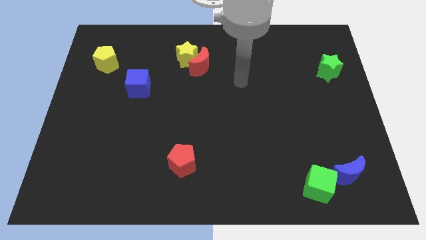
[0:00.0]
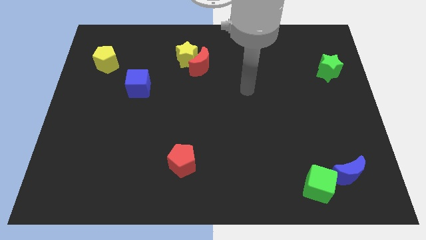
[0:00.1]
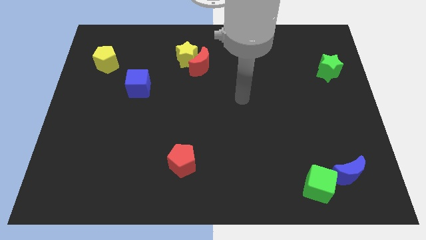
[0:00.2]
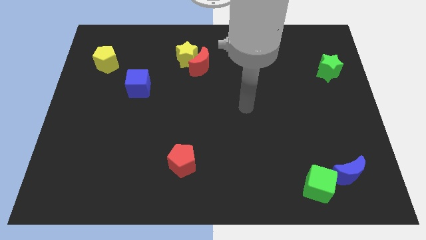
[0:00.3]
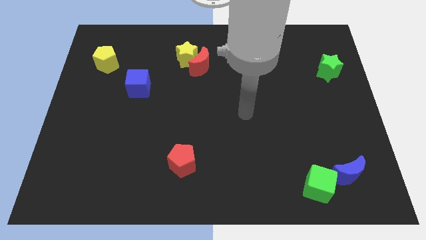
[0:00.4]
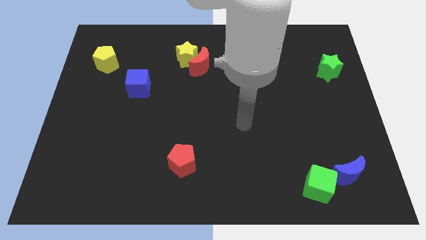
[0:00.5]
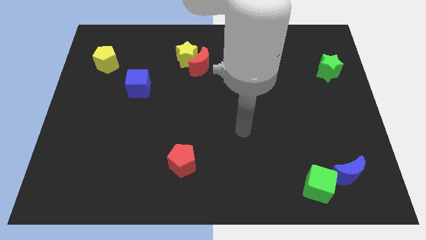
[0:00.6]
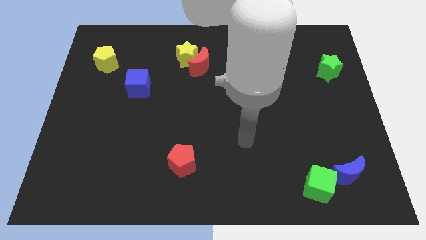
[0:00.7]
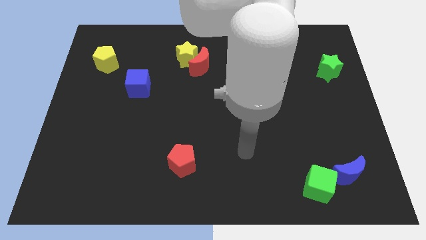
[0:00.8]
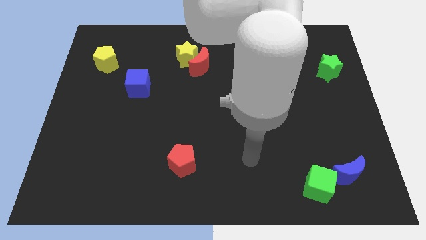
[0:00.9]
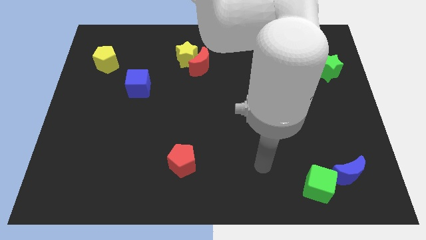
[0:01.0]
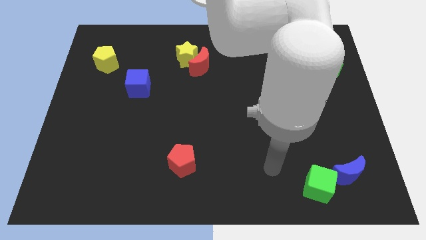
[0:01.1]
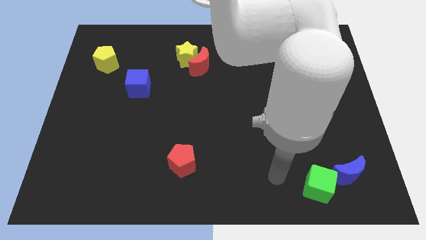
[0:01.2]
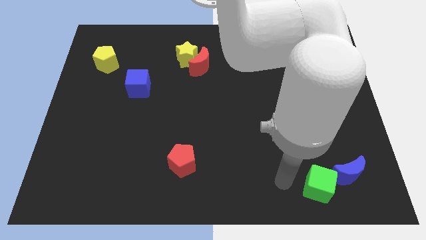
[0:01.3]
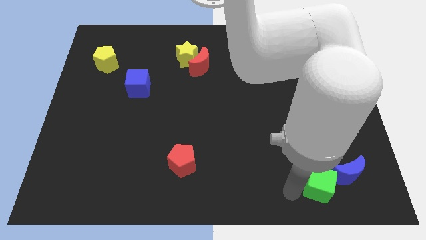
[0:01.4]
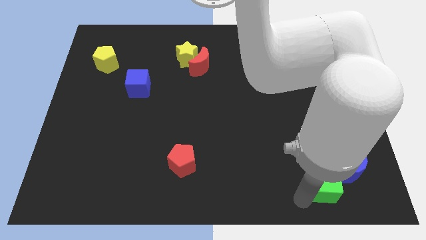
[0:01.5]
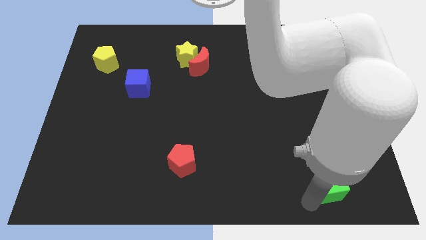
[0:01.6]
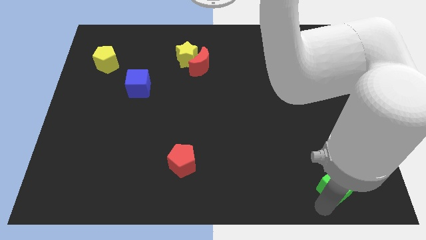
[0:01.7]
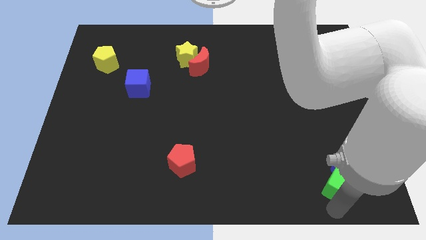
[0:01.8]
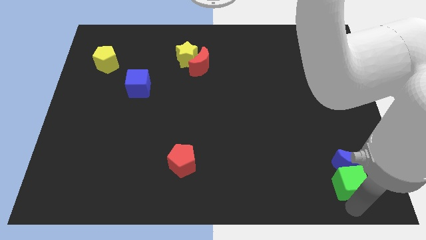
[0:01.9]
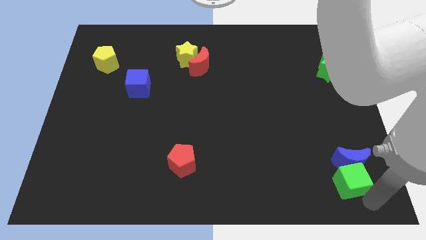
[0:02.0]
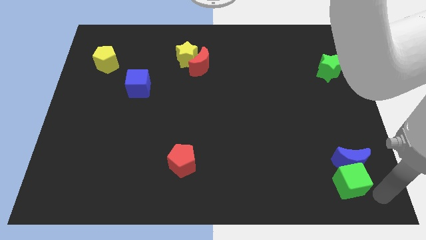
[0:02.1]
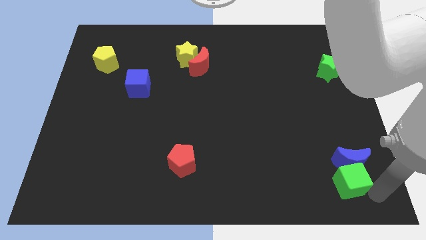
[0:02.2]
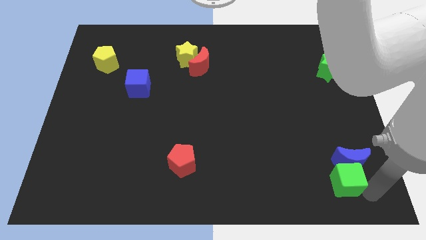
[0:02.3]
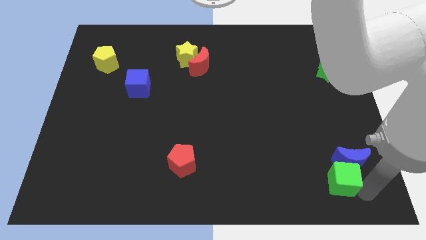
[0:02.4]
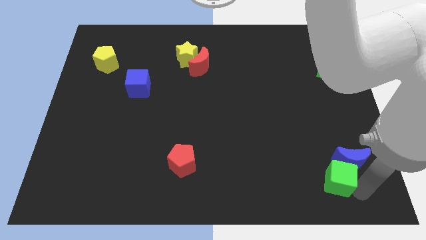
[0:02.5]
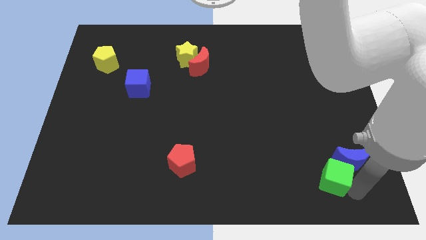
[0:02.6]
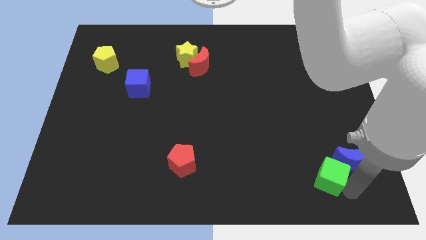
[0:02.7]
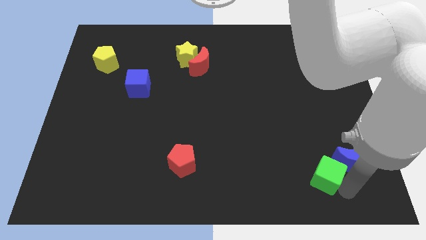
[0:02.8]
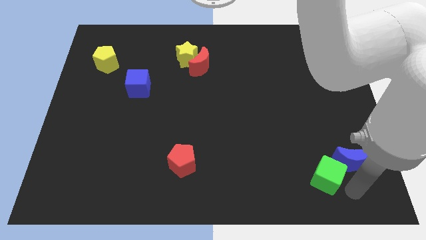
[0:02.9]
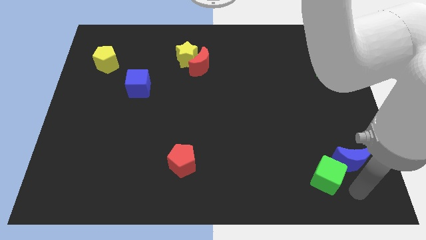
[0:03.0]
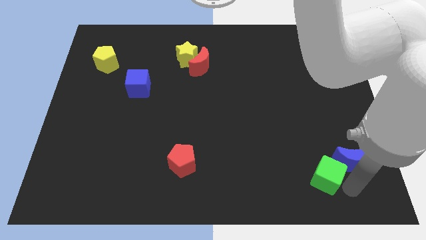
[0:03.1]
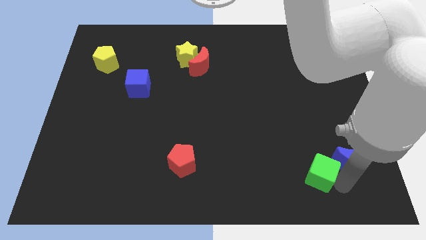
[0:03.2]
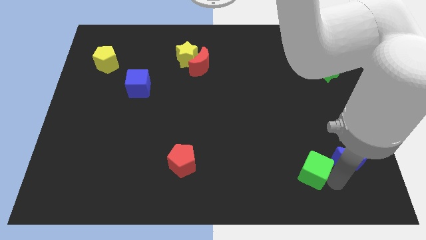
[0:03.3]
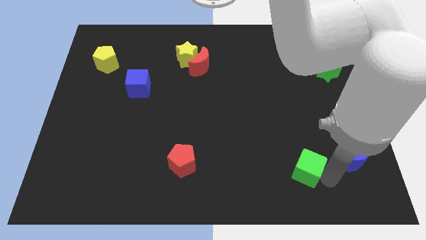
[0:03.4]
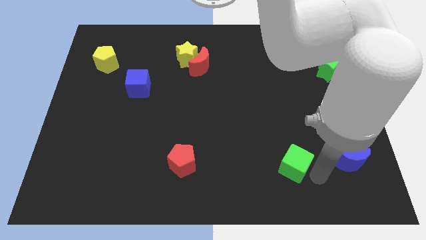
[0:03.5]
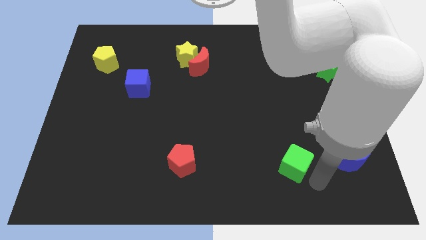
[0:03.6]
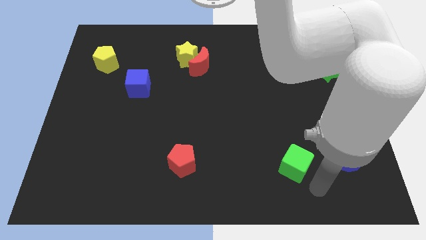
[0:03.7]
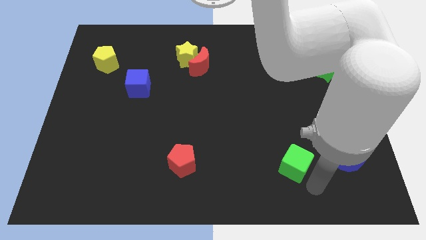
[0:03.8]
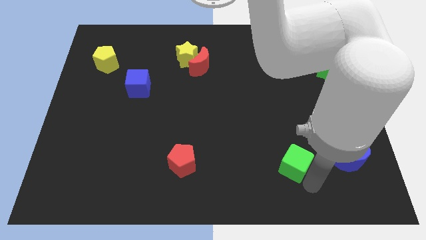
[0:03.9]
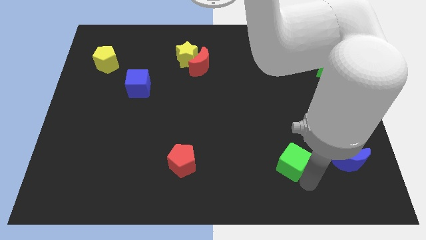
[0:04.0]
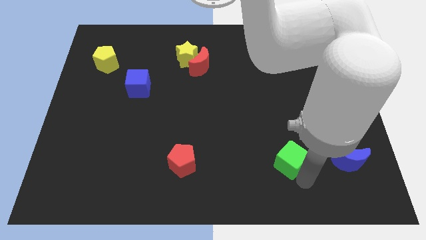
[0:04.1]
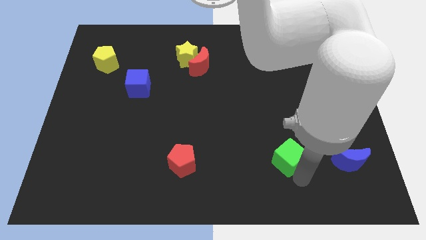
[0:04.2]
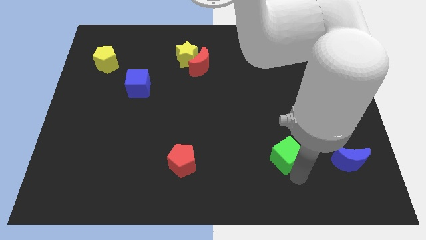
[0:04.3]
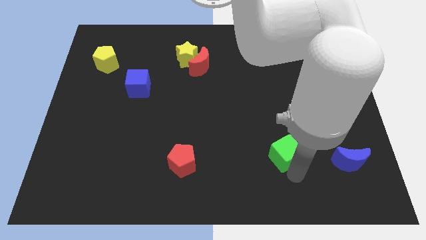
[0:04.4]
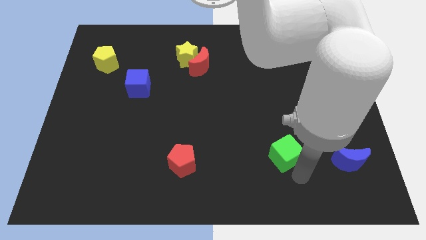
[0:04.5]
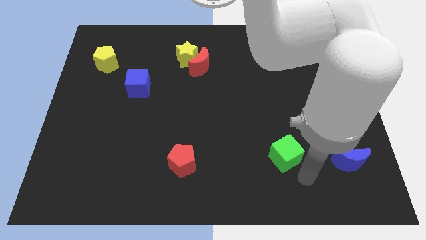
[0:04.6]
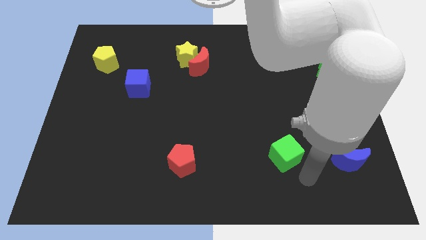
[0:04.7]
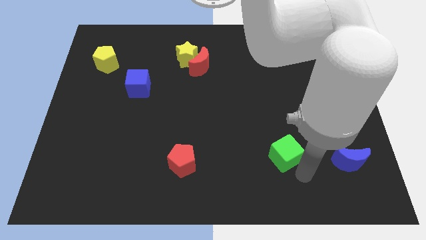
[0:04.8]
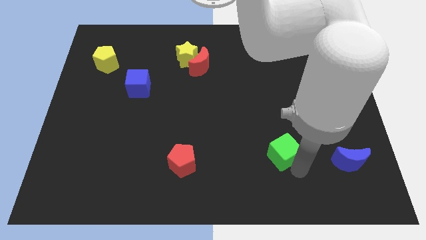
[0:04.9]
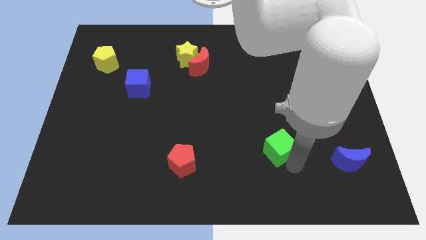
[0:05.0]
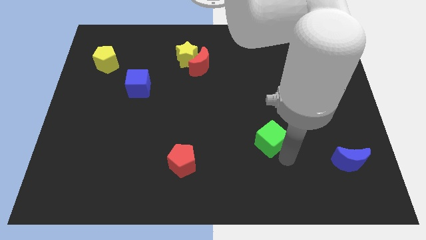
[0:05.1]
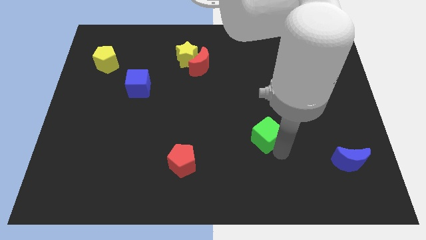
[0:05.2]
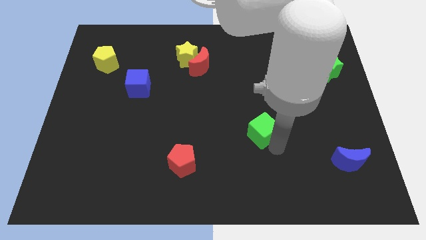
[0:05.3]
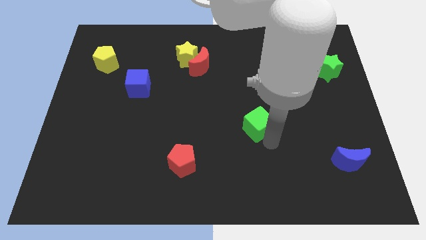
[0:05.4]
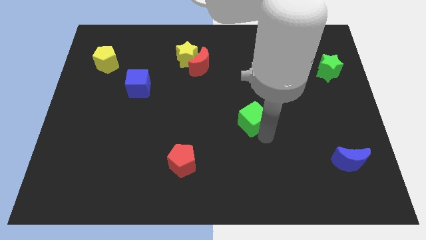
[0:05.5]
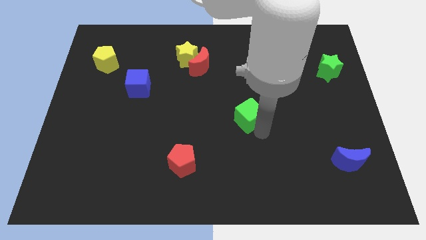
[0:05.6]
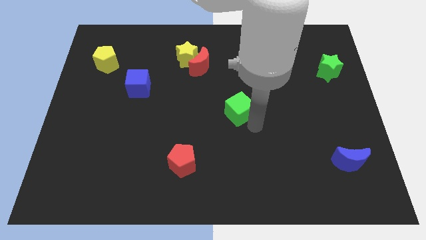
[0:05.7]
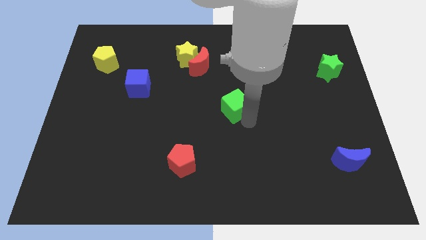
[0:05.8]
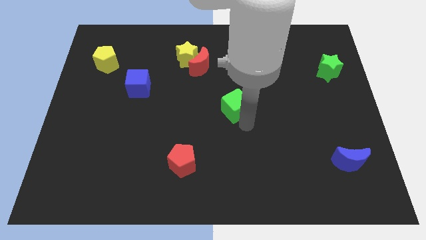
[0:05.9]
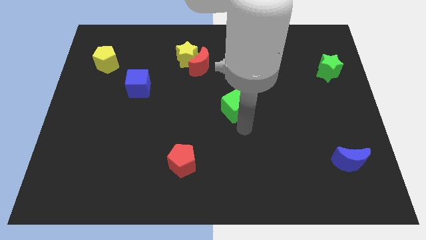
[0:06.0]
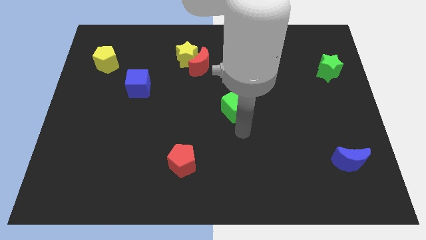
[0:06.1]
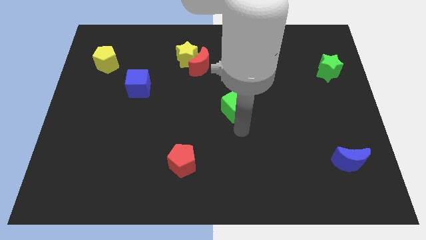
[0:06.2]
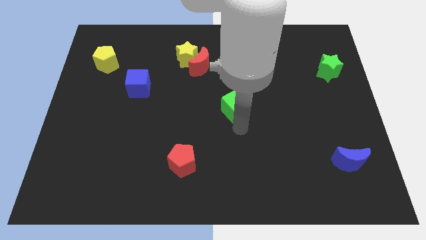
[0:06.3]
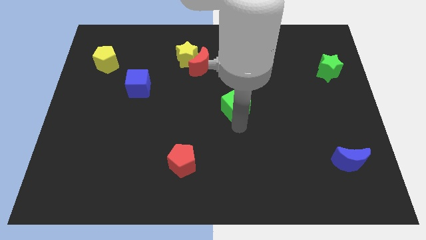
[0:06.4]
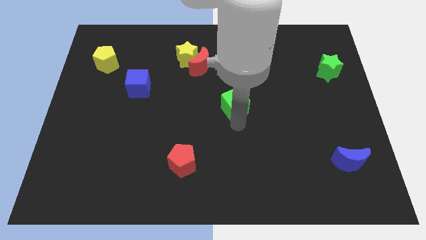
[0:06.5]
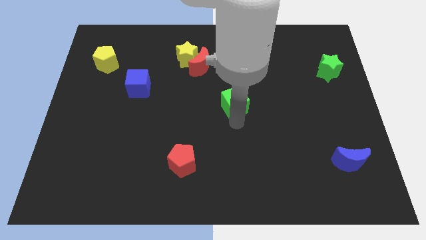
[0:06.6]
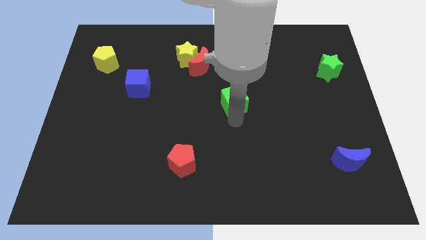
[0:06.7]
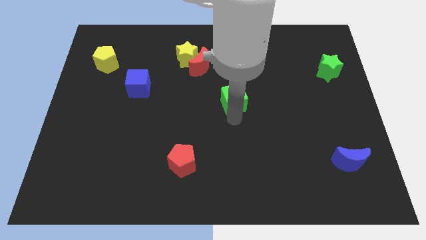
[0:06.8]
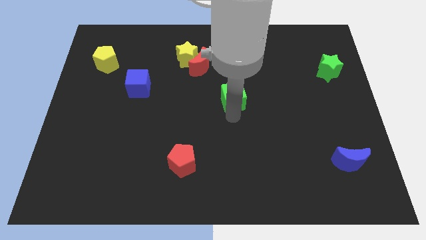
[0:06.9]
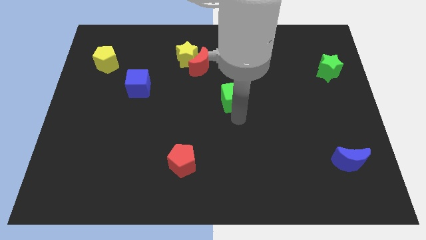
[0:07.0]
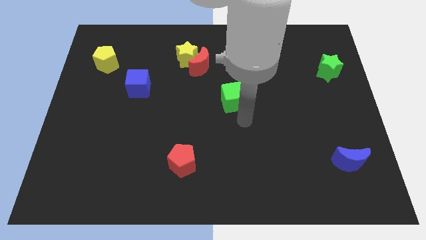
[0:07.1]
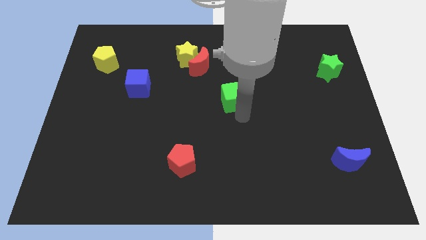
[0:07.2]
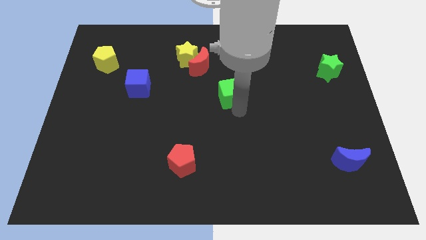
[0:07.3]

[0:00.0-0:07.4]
push the green cube diagonally down and to the right of the red moon
